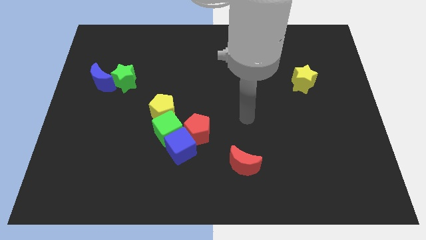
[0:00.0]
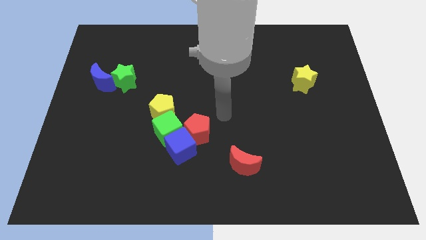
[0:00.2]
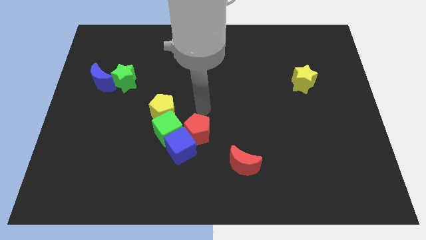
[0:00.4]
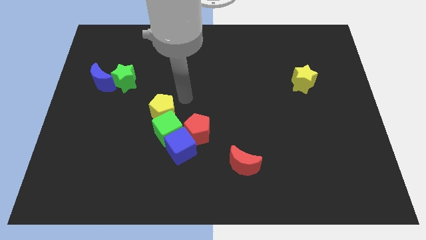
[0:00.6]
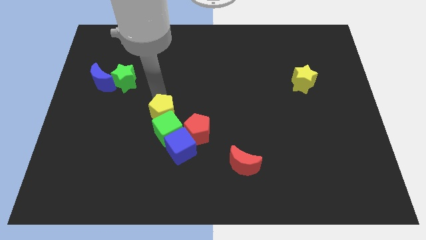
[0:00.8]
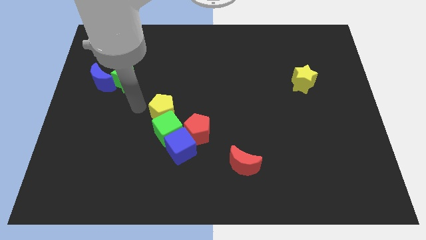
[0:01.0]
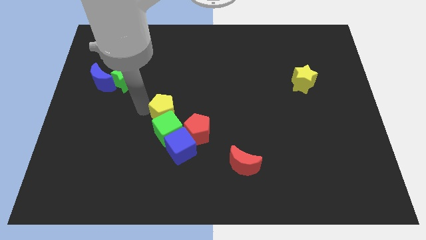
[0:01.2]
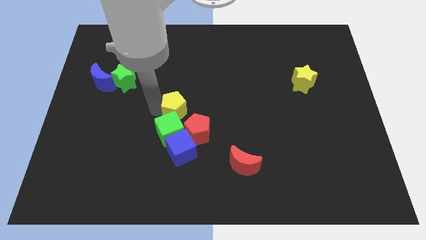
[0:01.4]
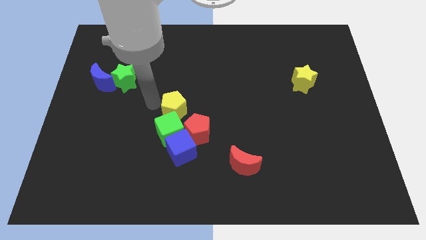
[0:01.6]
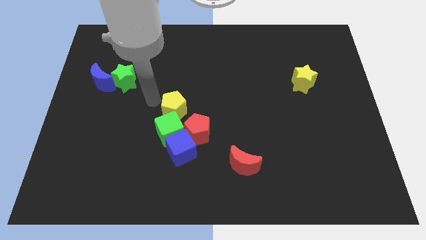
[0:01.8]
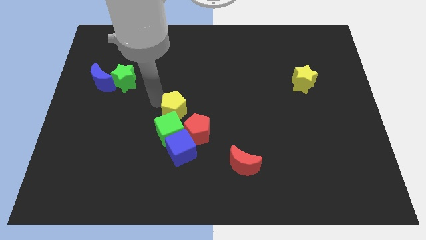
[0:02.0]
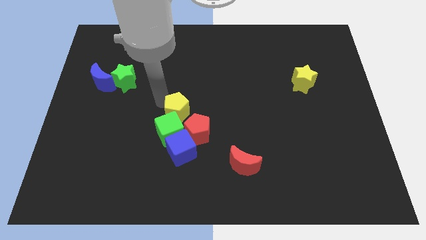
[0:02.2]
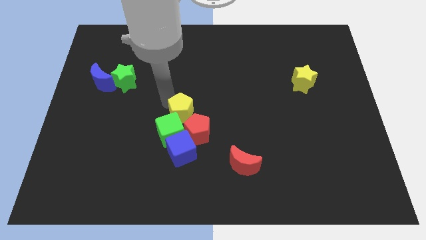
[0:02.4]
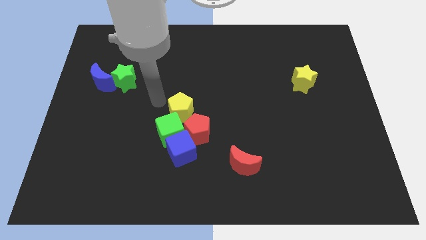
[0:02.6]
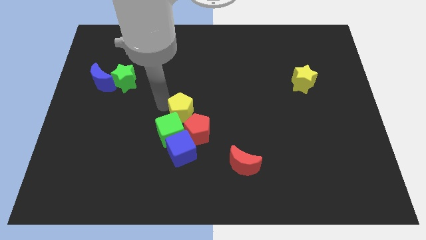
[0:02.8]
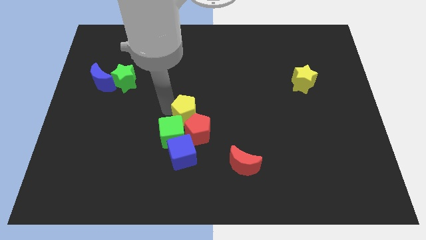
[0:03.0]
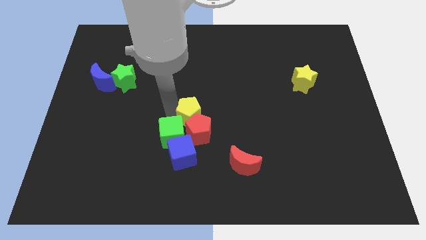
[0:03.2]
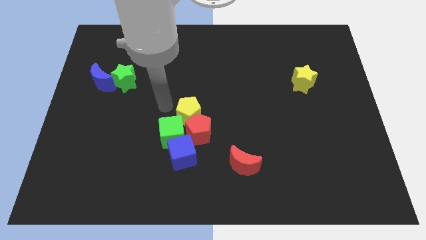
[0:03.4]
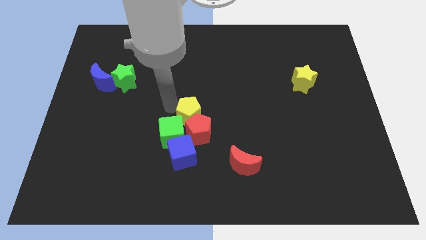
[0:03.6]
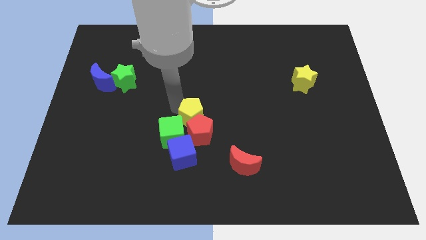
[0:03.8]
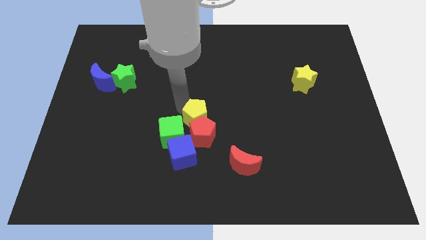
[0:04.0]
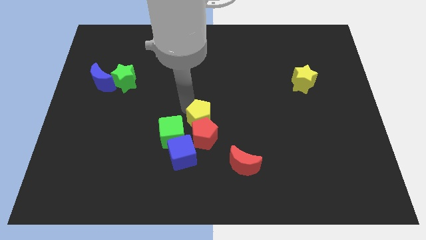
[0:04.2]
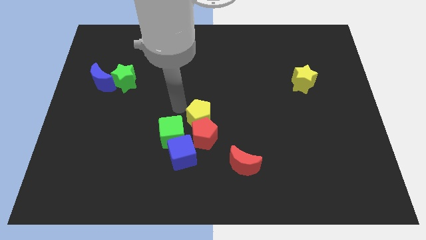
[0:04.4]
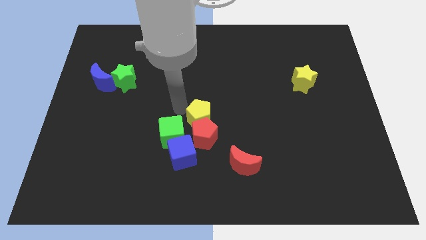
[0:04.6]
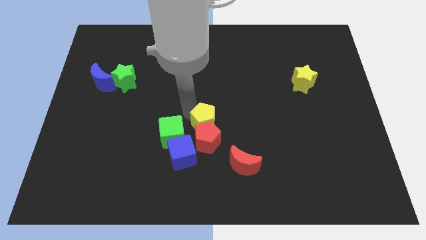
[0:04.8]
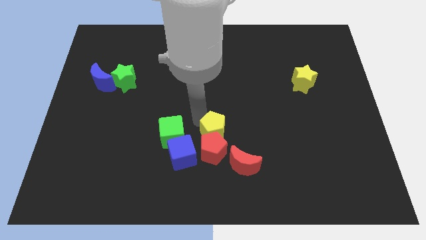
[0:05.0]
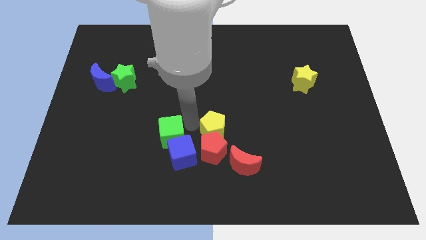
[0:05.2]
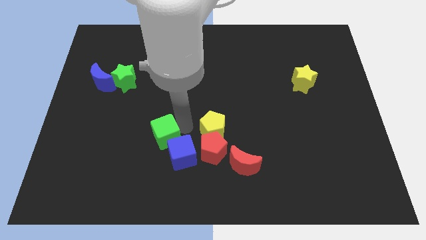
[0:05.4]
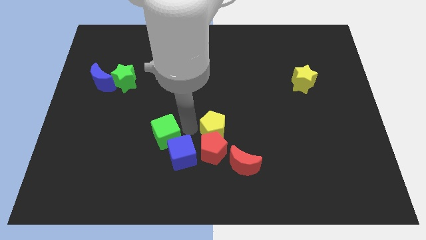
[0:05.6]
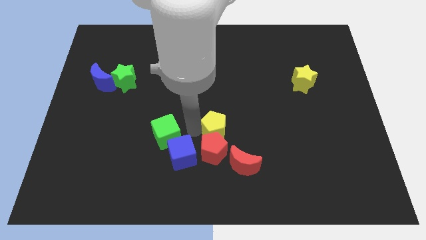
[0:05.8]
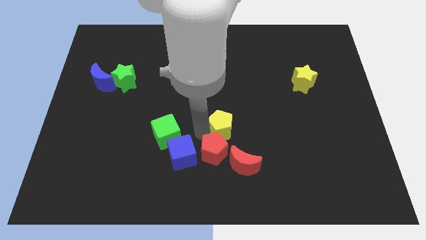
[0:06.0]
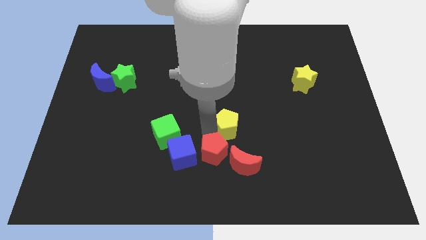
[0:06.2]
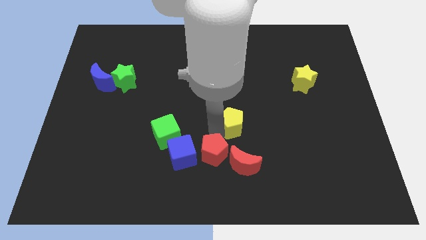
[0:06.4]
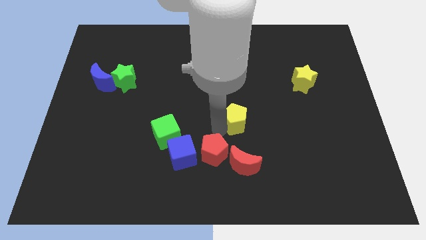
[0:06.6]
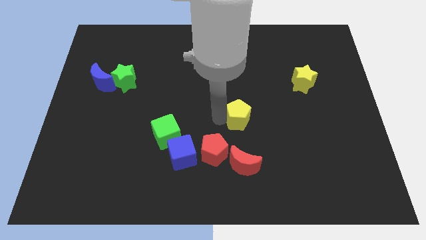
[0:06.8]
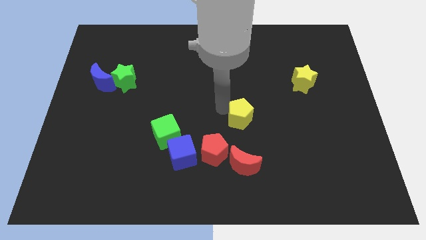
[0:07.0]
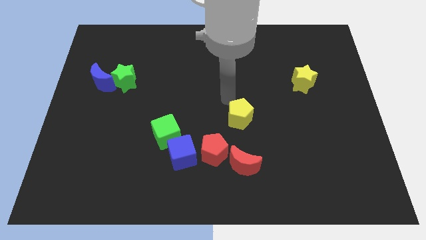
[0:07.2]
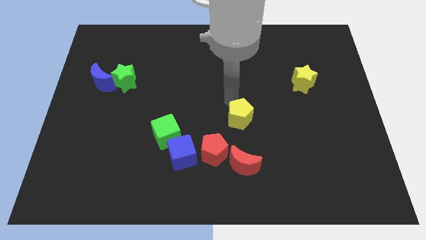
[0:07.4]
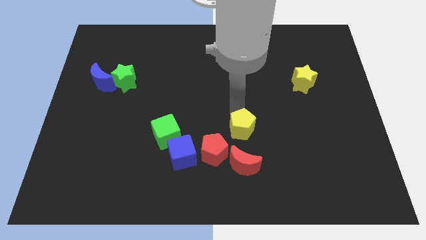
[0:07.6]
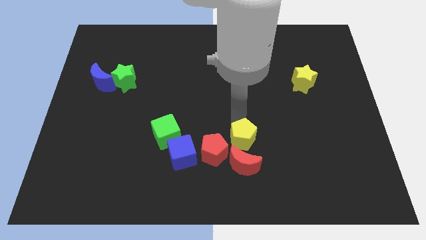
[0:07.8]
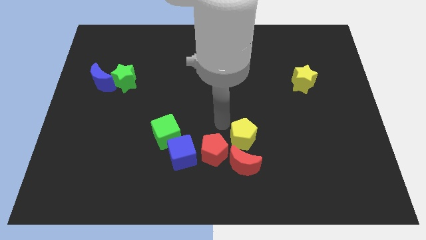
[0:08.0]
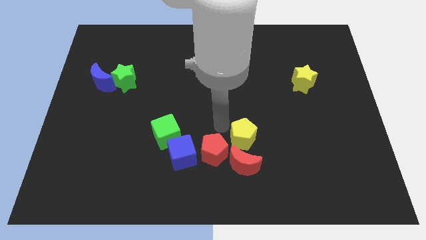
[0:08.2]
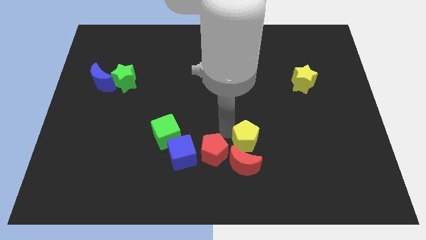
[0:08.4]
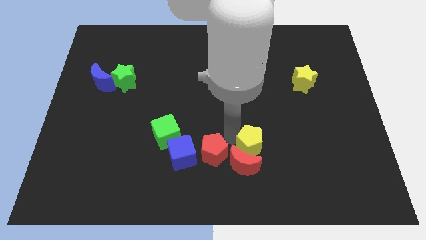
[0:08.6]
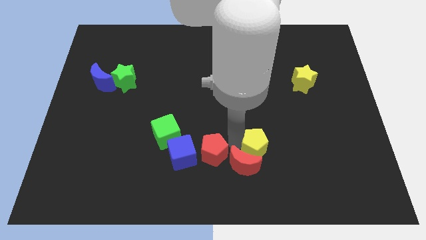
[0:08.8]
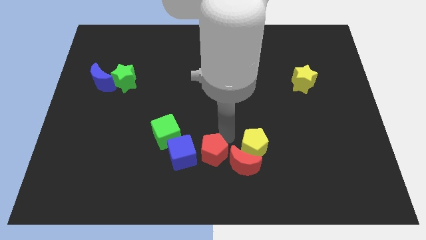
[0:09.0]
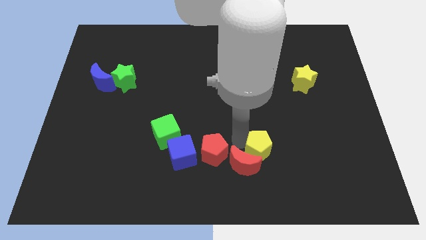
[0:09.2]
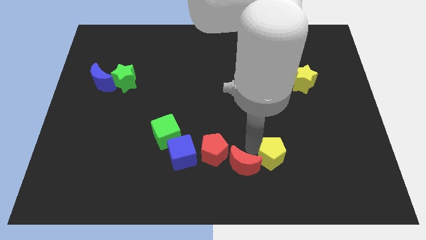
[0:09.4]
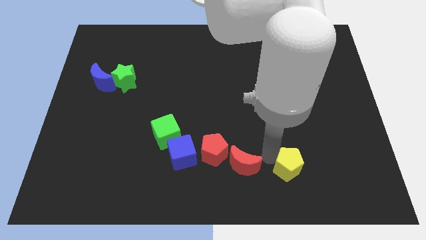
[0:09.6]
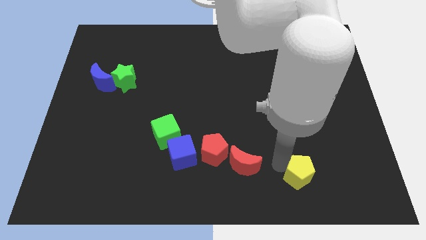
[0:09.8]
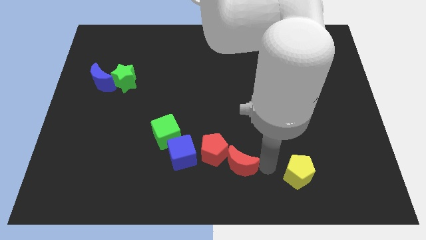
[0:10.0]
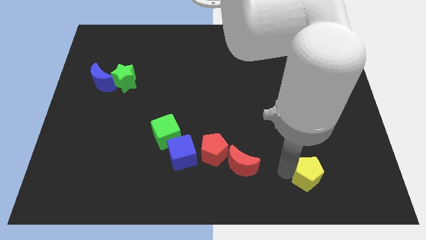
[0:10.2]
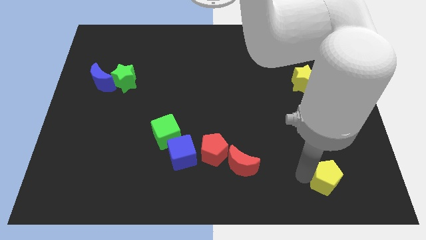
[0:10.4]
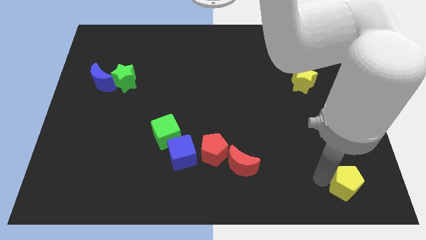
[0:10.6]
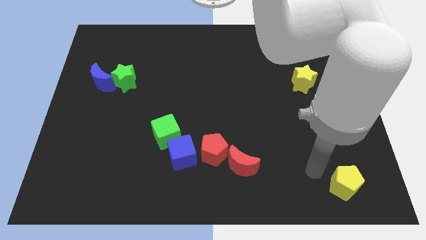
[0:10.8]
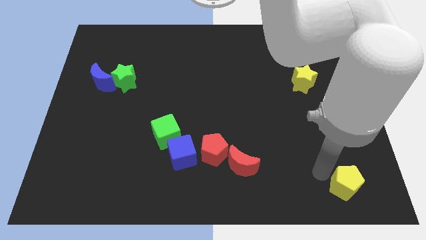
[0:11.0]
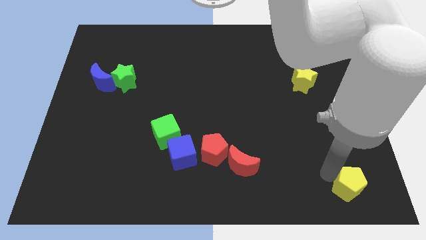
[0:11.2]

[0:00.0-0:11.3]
push the yellow pentagon to the lower right corner

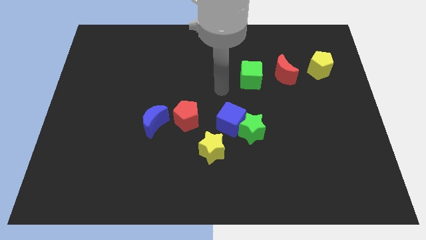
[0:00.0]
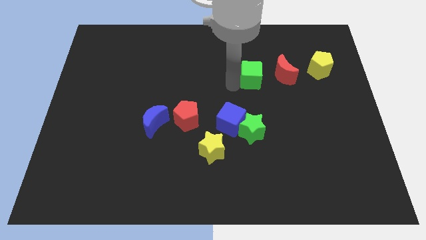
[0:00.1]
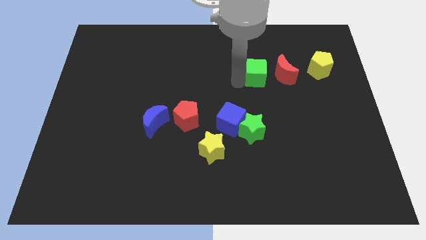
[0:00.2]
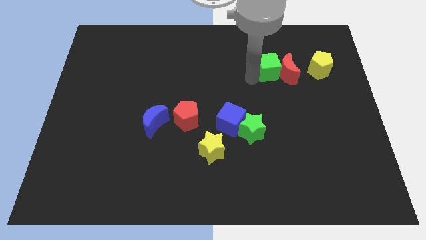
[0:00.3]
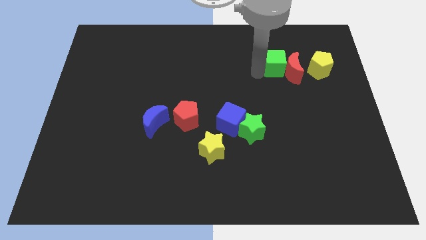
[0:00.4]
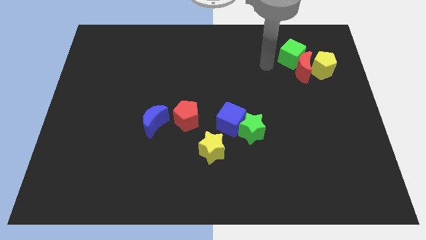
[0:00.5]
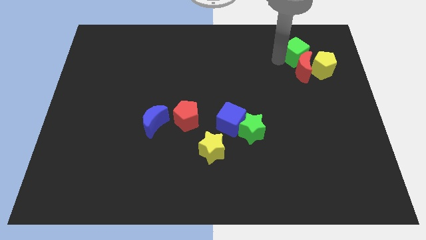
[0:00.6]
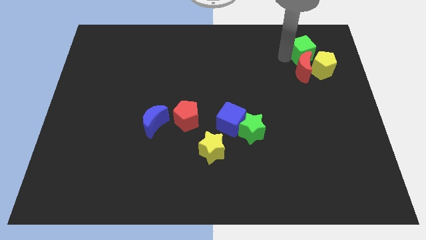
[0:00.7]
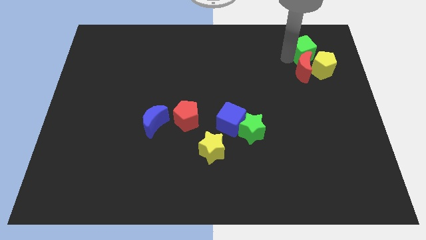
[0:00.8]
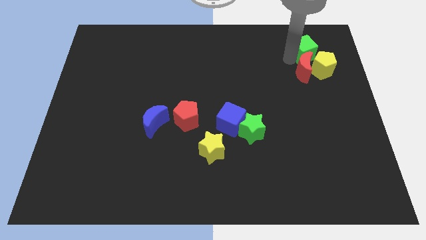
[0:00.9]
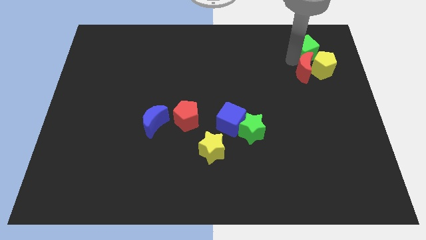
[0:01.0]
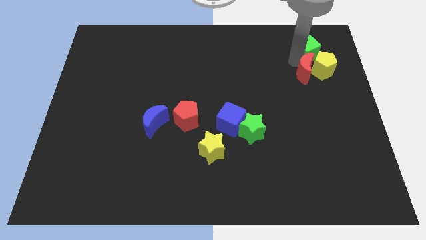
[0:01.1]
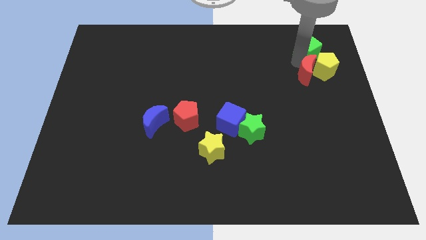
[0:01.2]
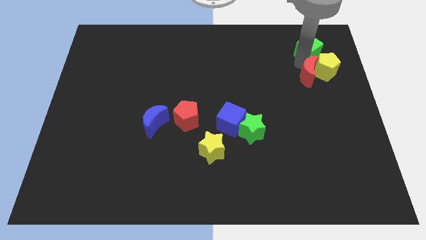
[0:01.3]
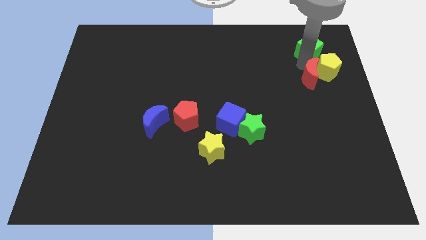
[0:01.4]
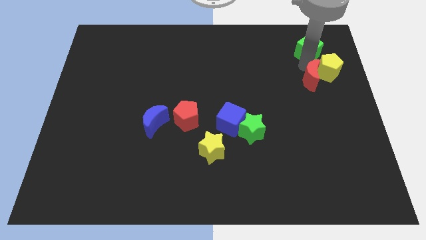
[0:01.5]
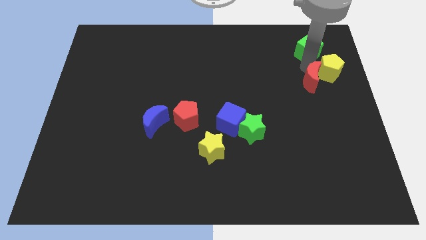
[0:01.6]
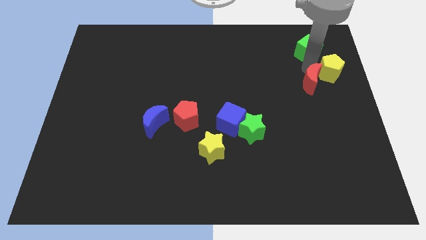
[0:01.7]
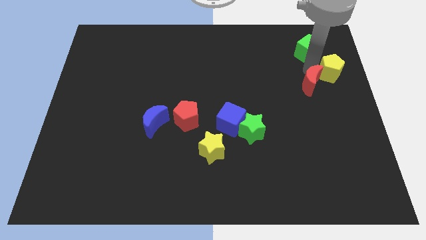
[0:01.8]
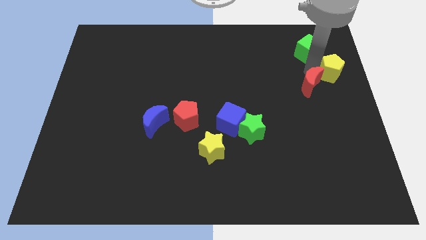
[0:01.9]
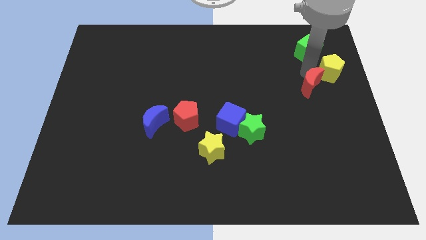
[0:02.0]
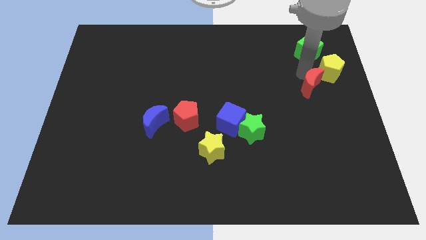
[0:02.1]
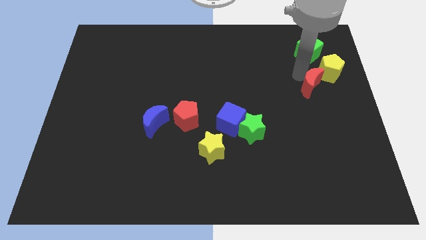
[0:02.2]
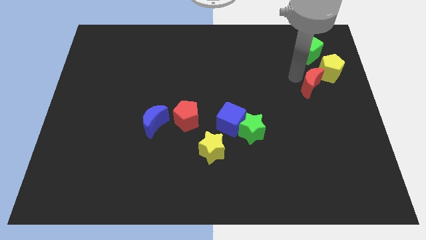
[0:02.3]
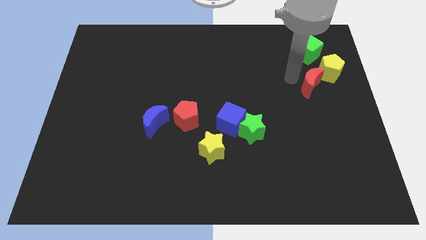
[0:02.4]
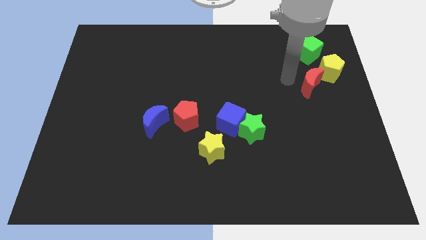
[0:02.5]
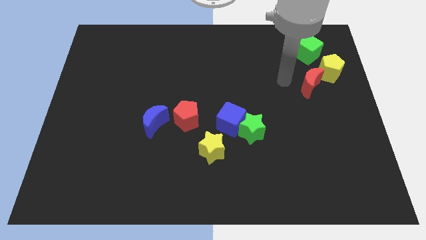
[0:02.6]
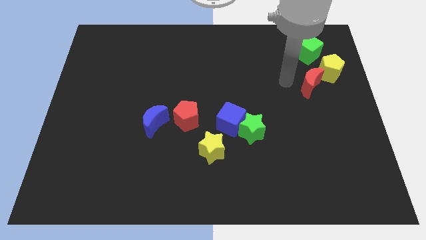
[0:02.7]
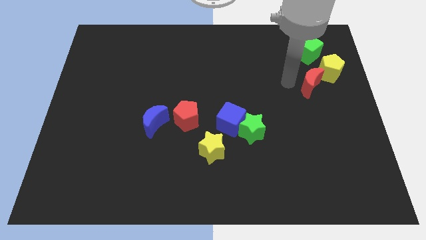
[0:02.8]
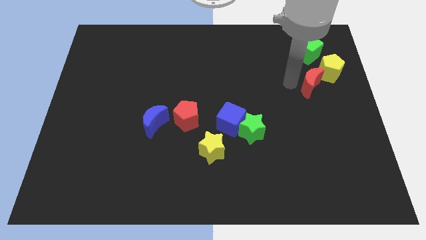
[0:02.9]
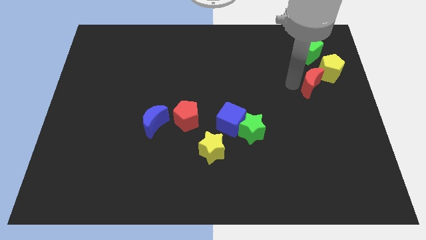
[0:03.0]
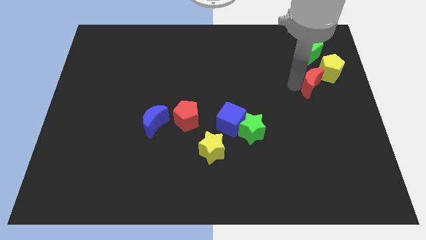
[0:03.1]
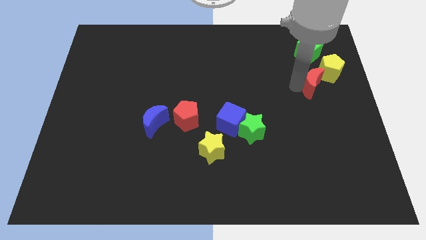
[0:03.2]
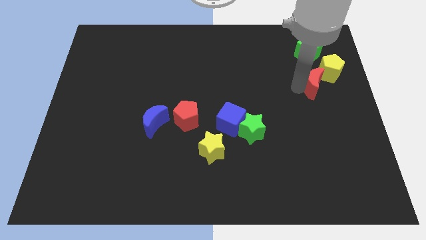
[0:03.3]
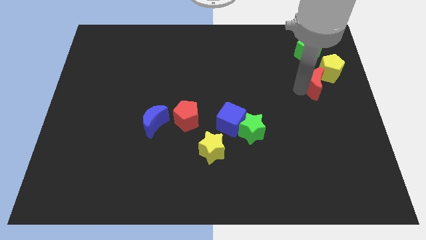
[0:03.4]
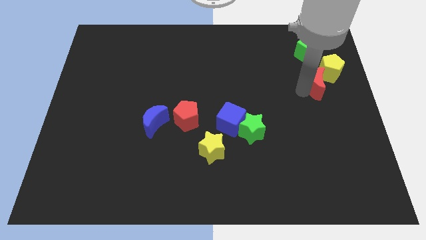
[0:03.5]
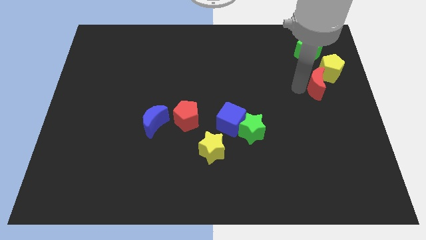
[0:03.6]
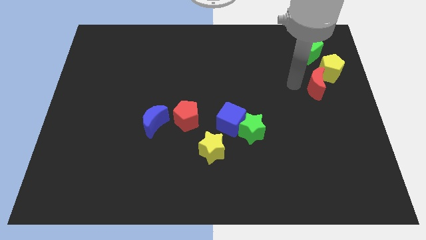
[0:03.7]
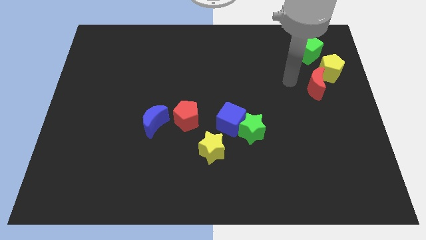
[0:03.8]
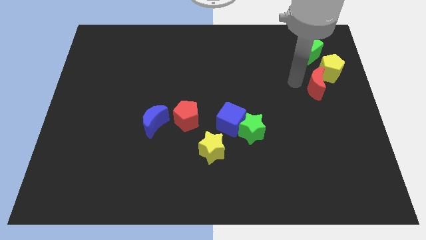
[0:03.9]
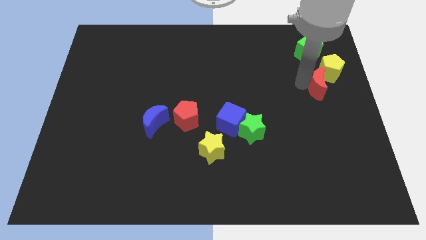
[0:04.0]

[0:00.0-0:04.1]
put the red moon to the center right
